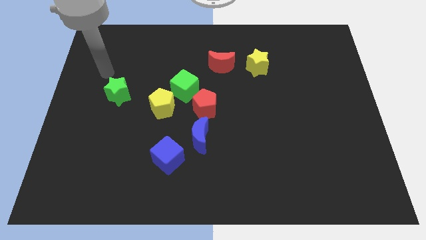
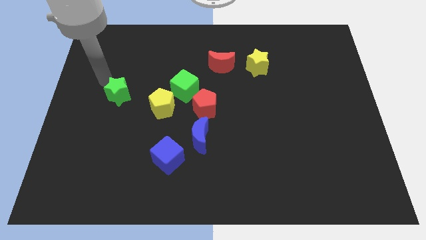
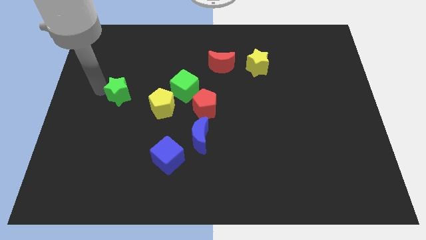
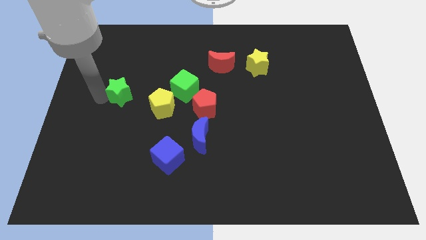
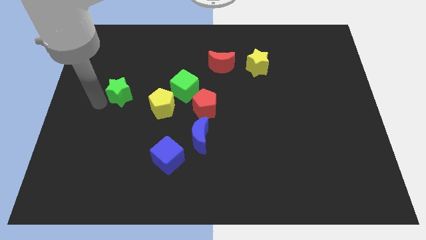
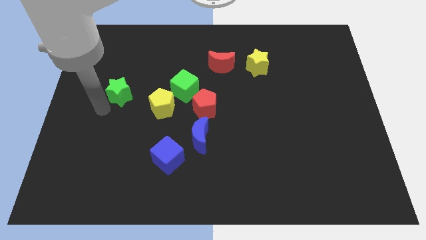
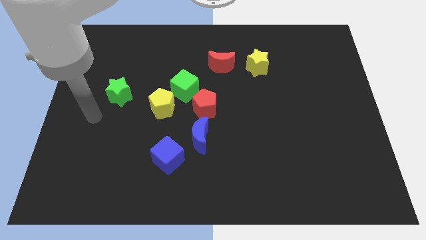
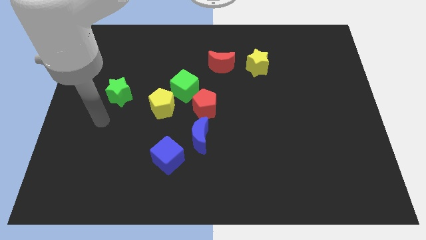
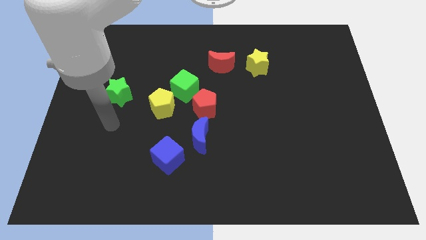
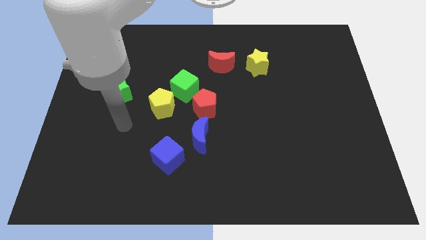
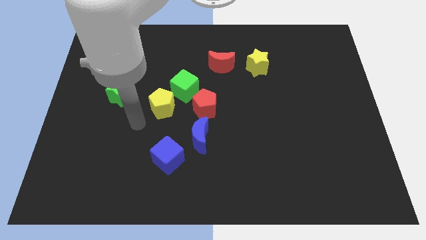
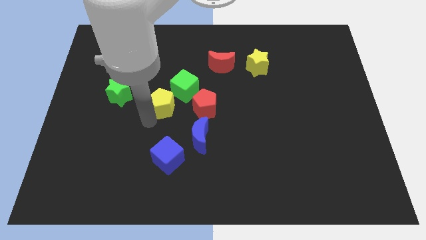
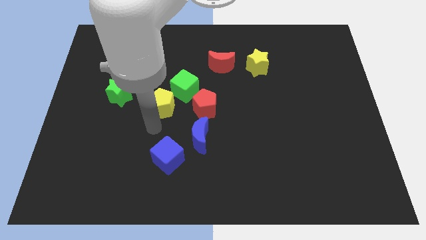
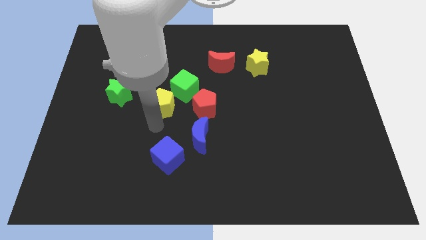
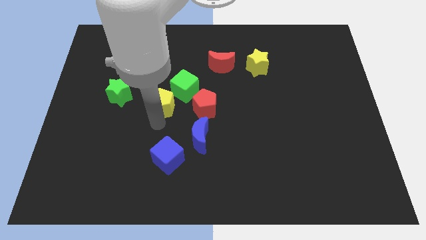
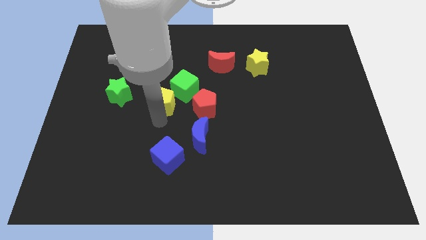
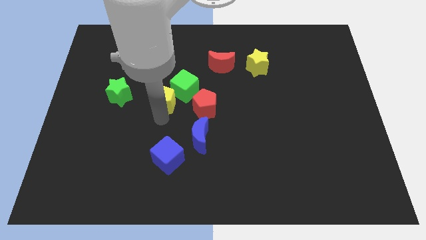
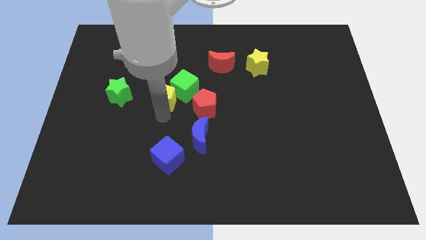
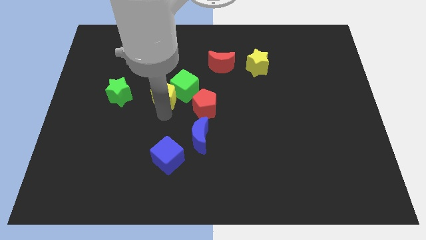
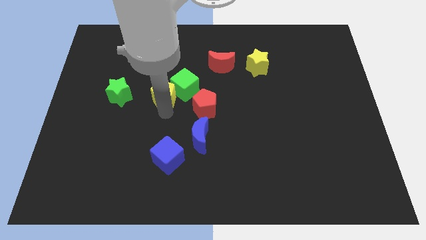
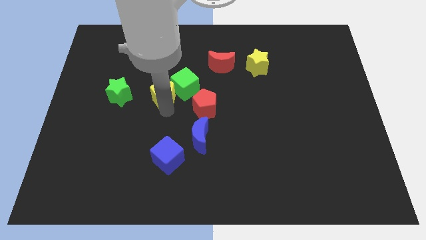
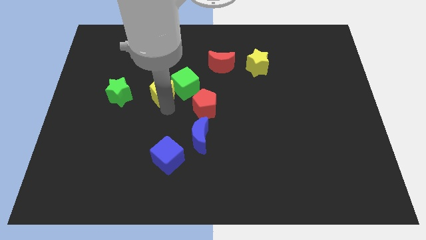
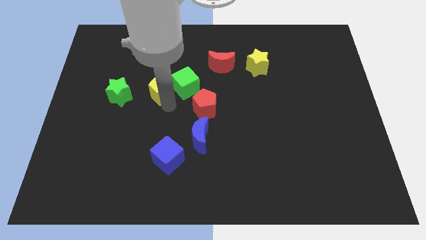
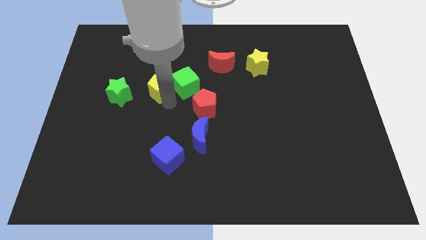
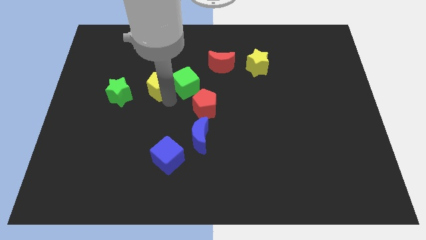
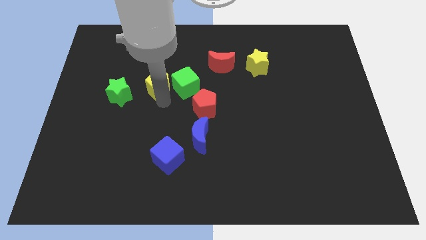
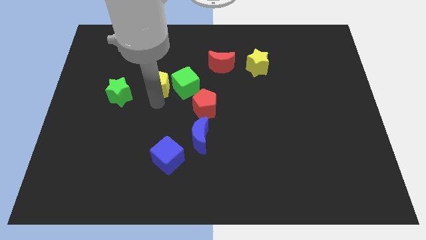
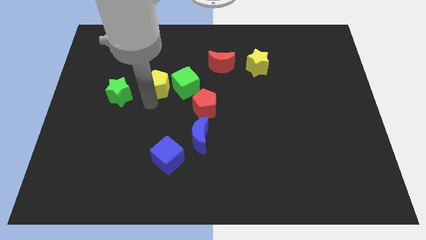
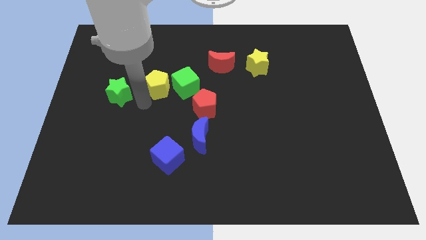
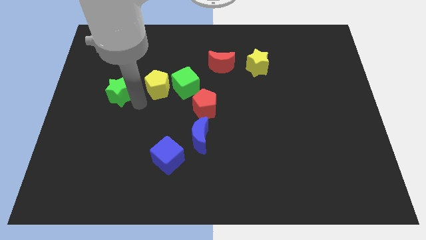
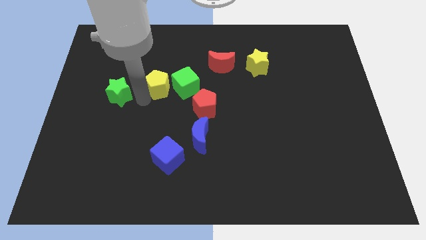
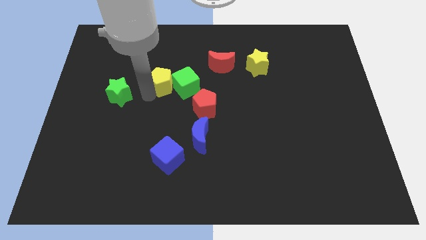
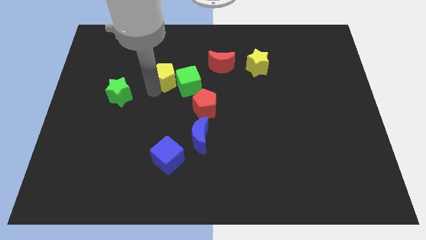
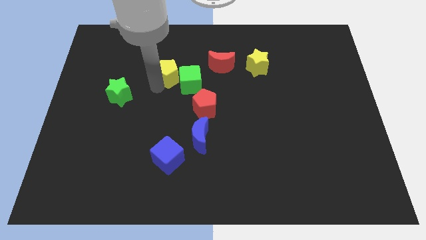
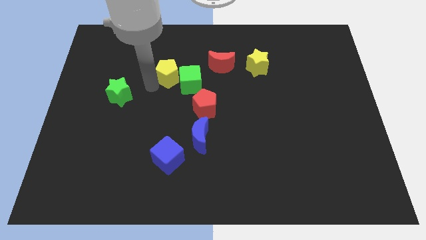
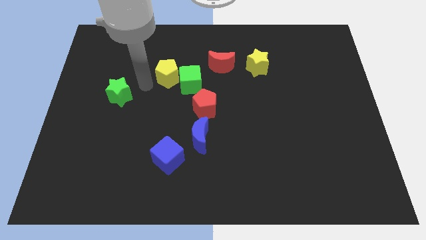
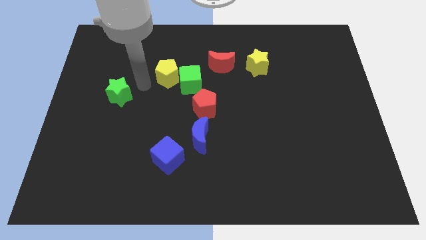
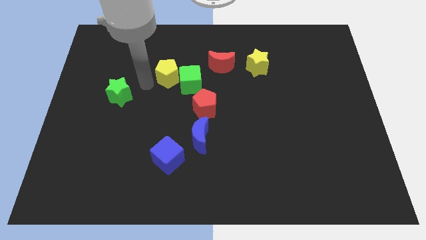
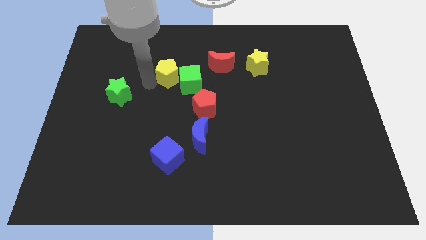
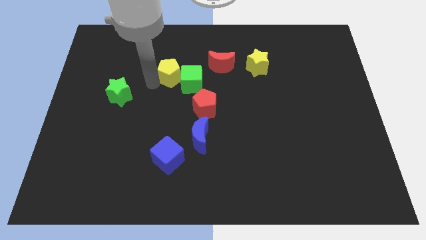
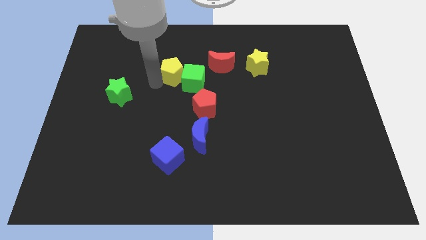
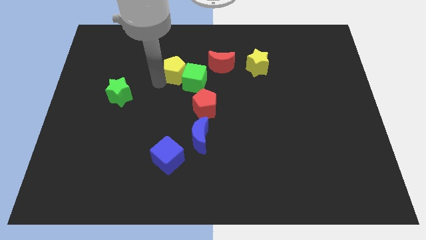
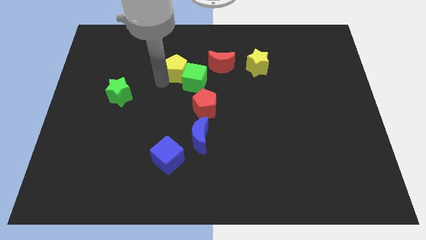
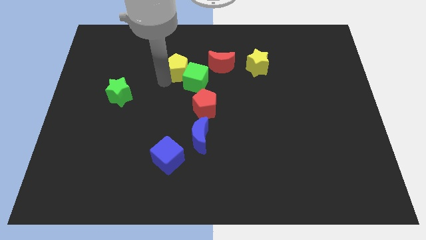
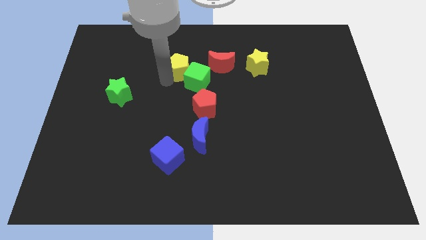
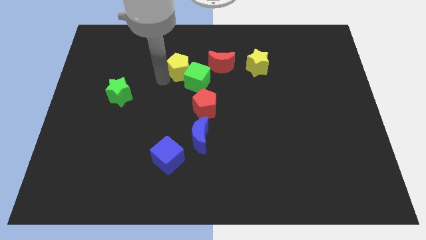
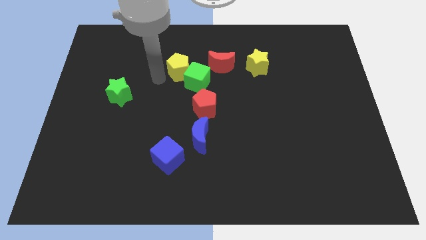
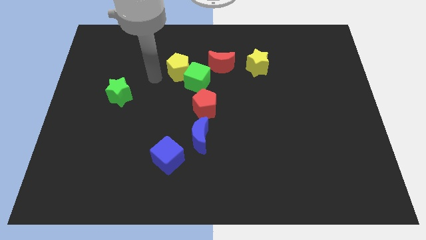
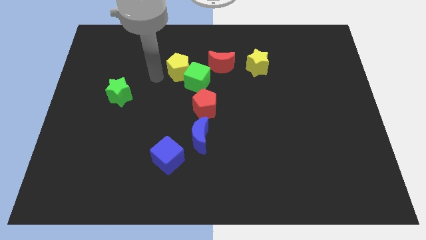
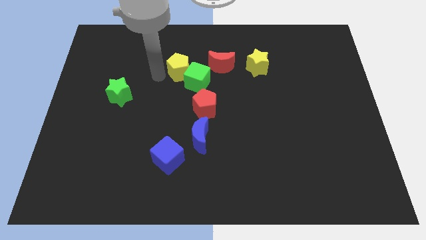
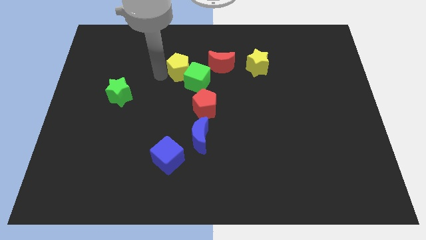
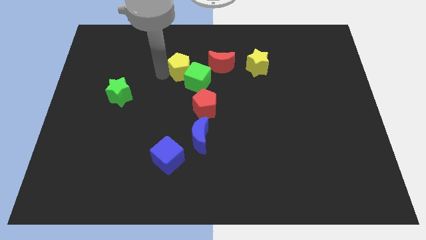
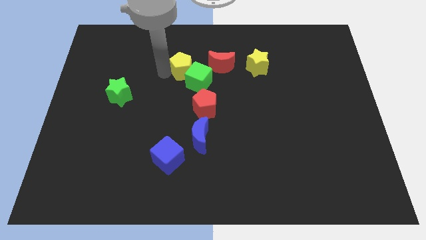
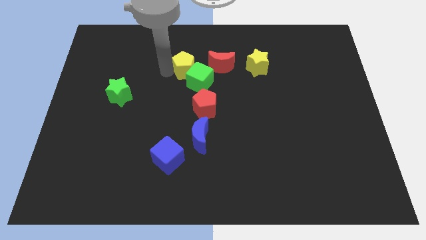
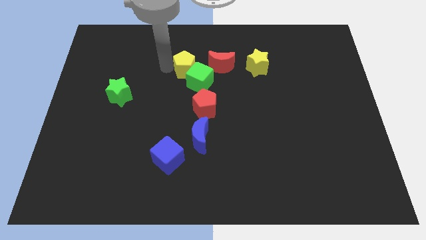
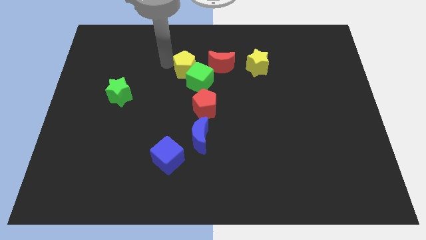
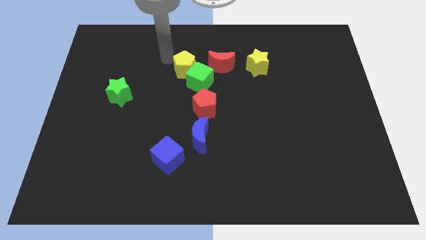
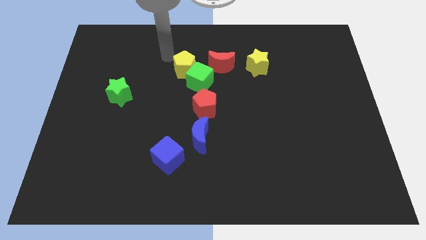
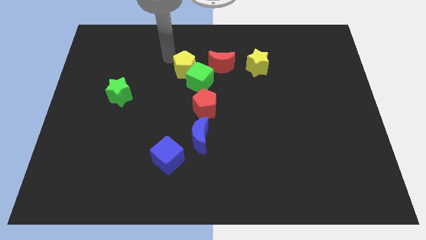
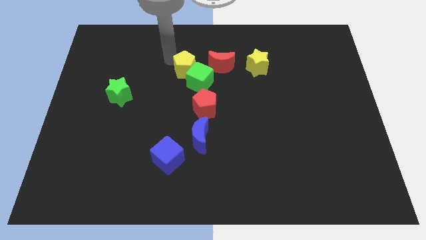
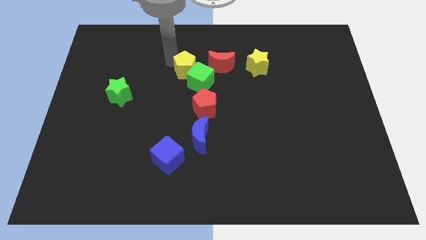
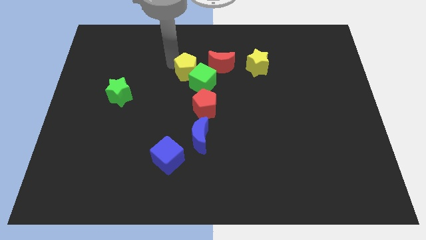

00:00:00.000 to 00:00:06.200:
push the yellow pentagon to the bottom left side of the red moon

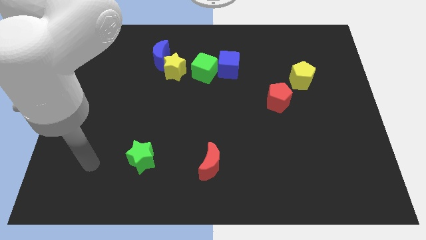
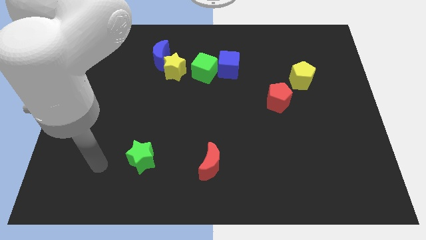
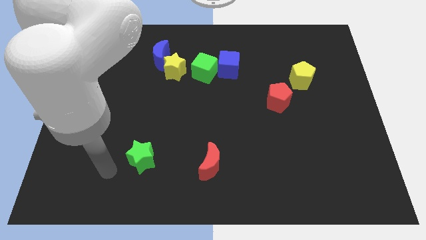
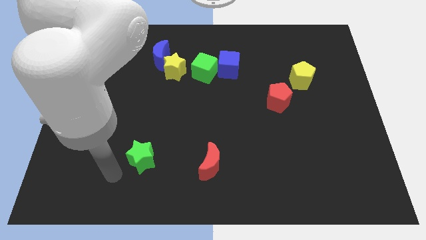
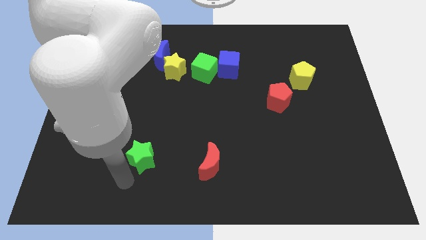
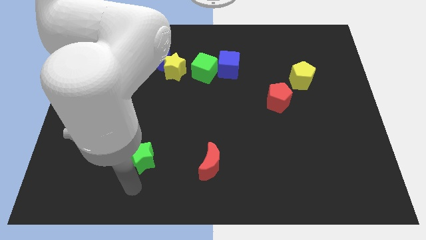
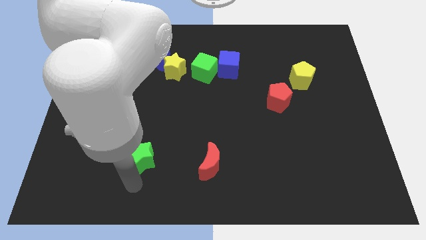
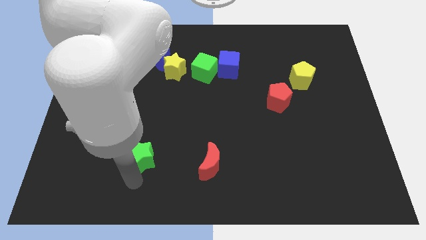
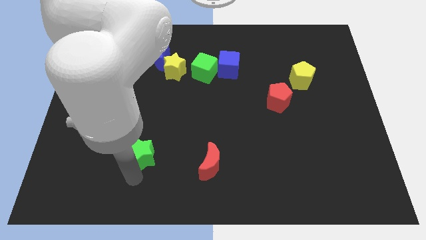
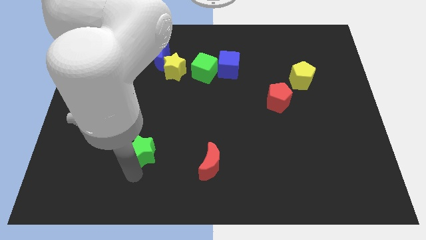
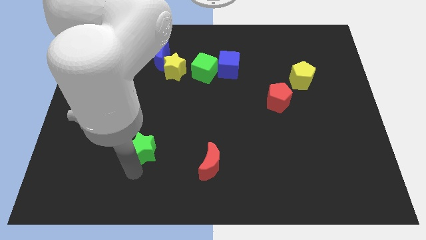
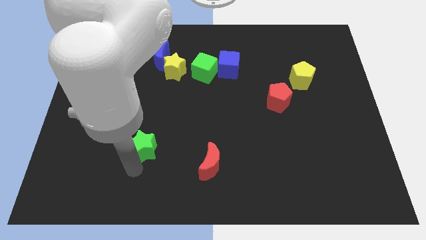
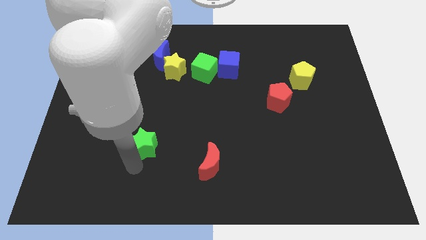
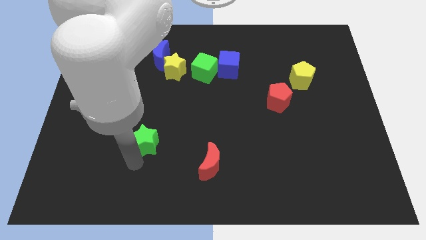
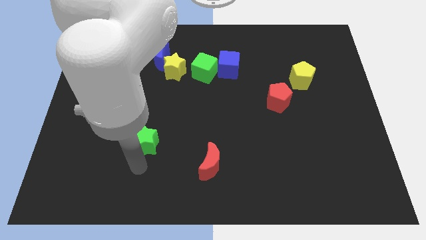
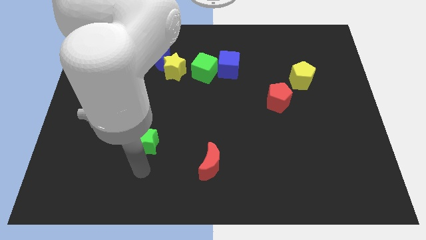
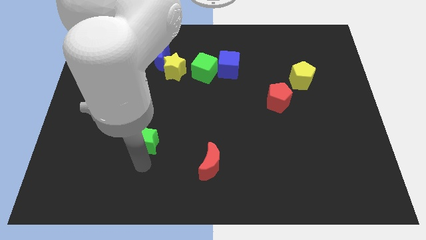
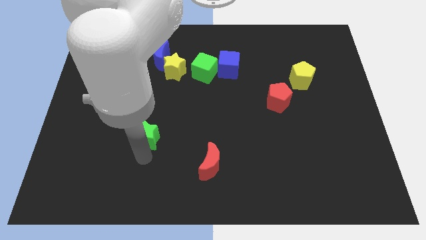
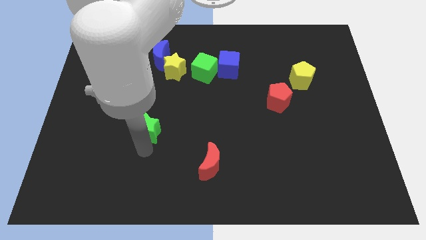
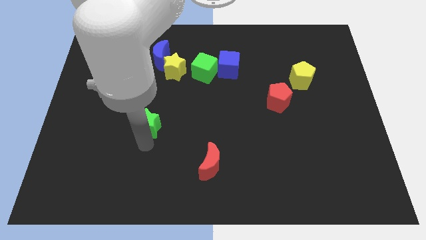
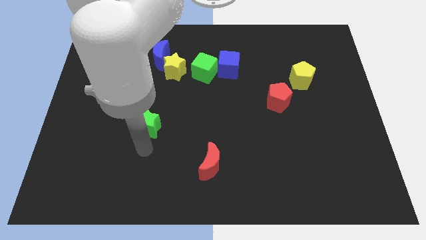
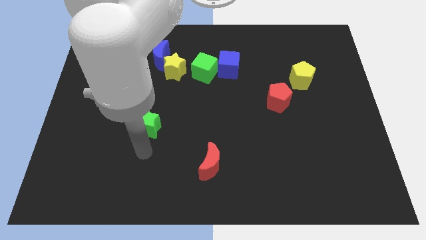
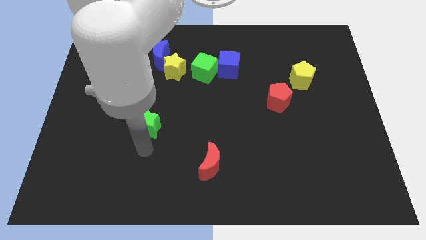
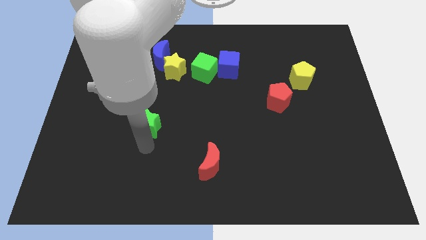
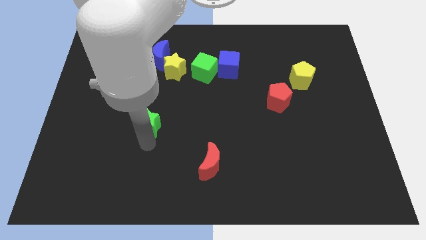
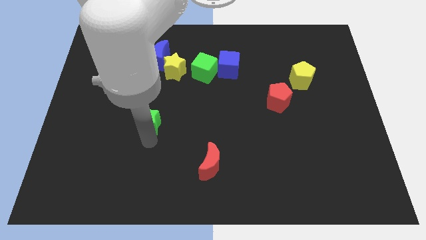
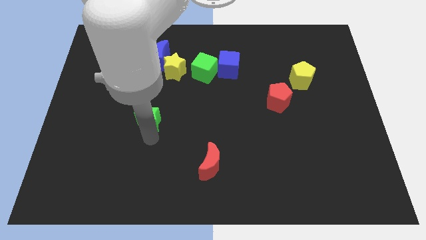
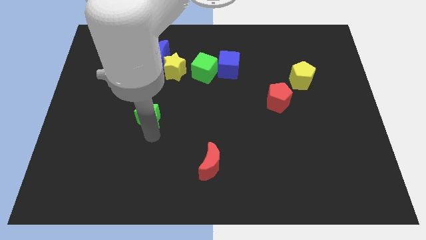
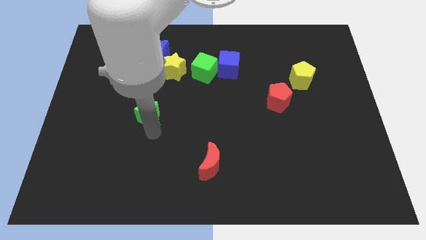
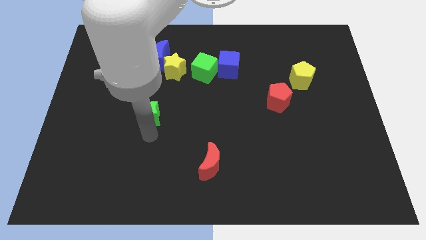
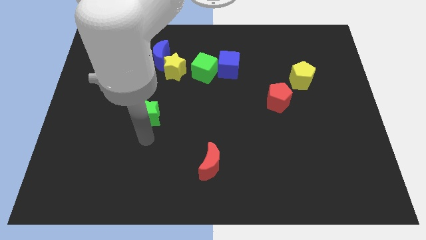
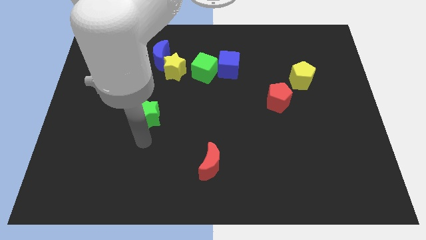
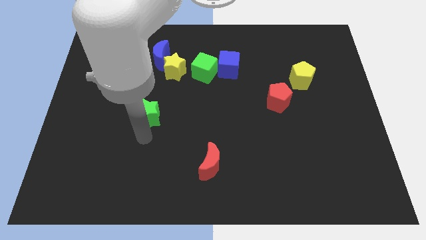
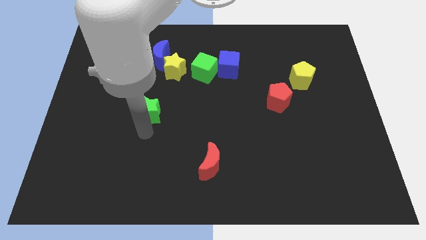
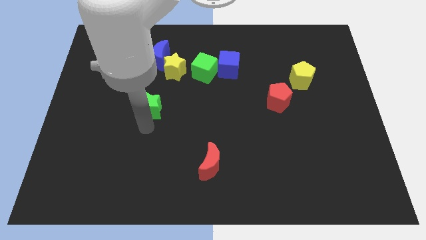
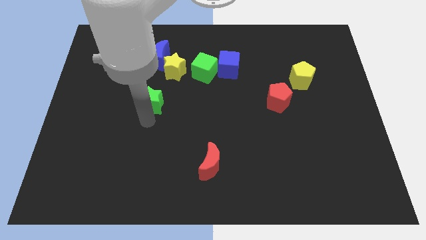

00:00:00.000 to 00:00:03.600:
push the green star below the blue moon
